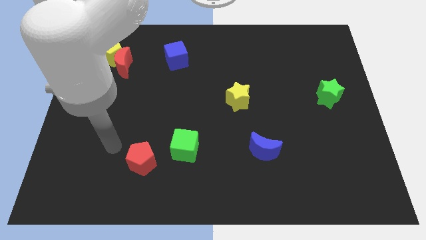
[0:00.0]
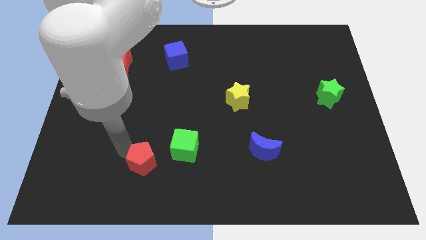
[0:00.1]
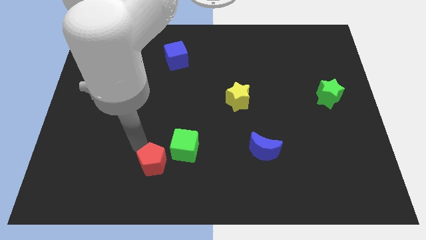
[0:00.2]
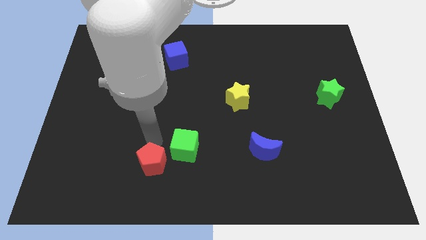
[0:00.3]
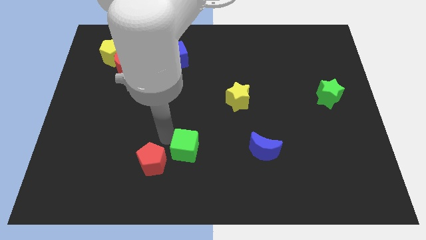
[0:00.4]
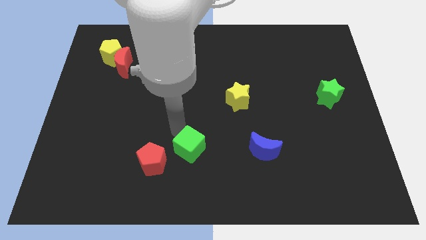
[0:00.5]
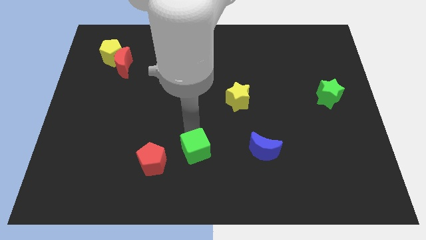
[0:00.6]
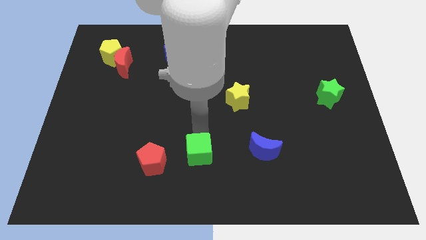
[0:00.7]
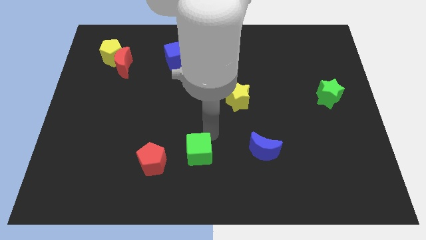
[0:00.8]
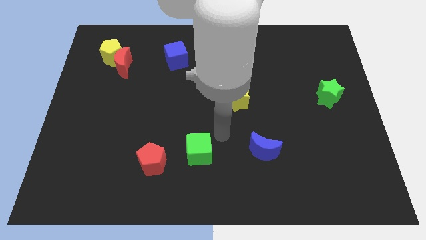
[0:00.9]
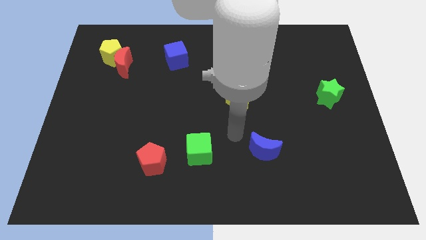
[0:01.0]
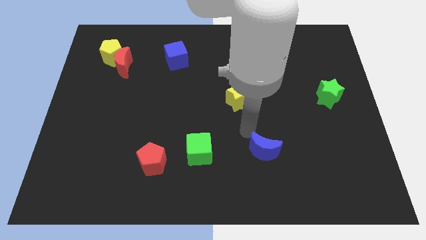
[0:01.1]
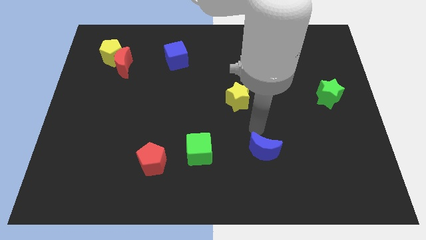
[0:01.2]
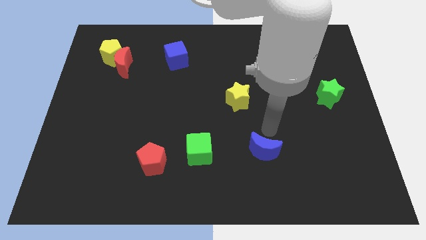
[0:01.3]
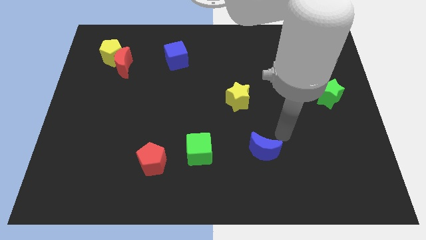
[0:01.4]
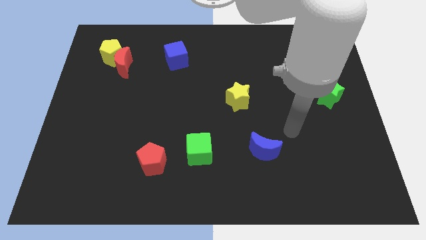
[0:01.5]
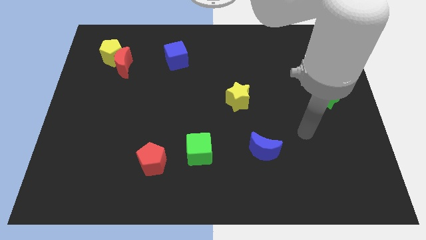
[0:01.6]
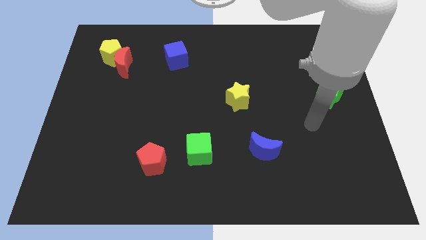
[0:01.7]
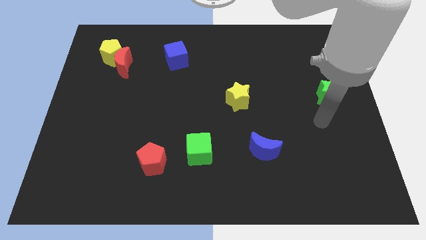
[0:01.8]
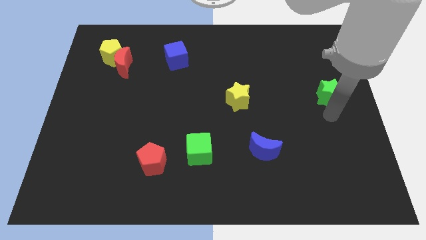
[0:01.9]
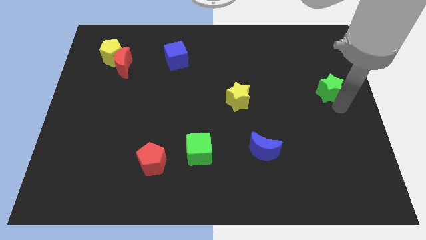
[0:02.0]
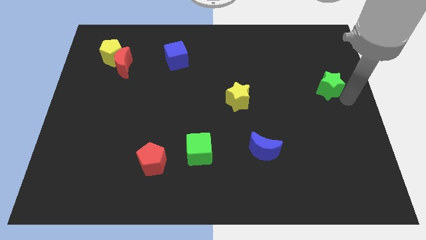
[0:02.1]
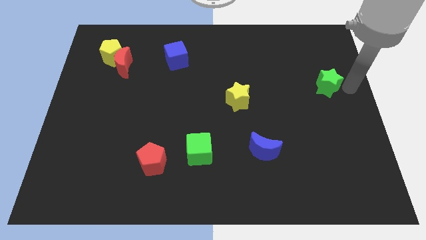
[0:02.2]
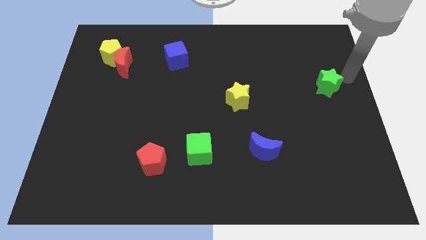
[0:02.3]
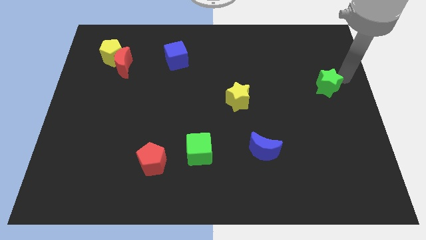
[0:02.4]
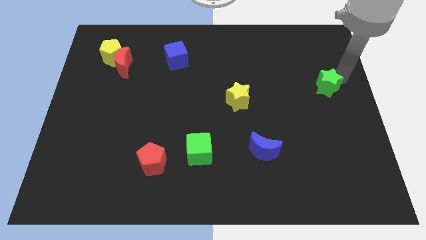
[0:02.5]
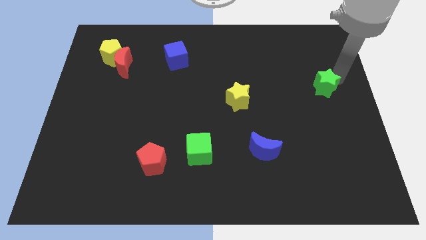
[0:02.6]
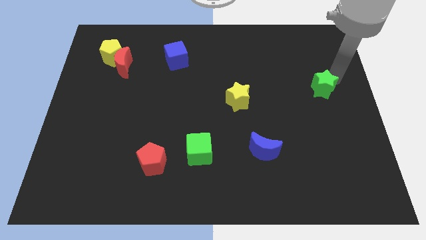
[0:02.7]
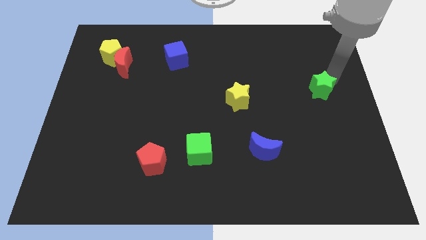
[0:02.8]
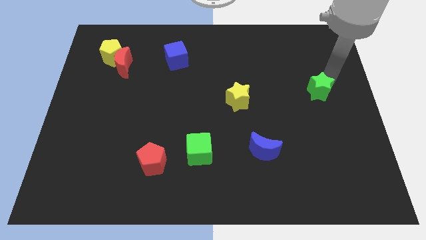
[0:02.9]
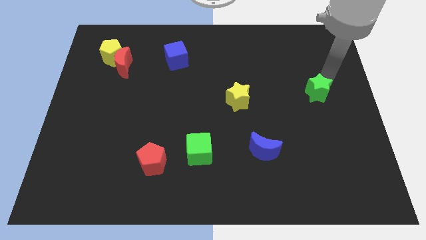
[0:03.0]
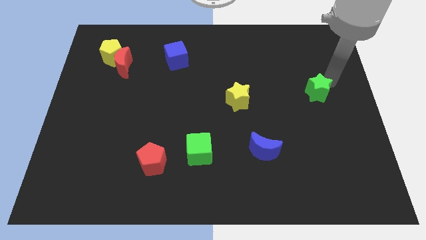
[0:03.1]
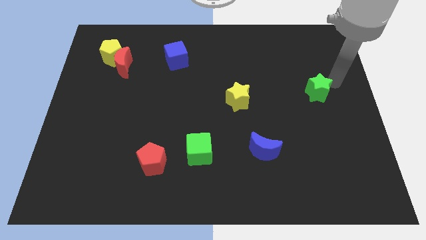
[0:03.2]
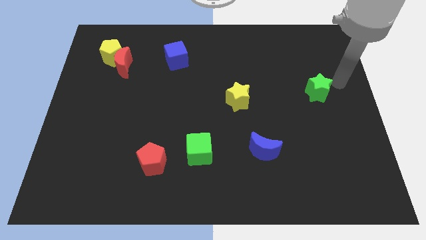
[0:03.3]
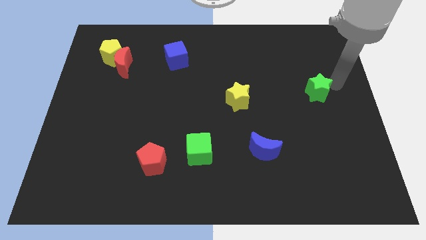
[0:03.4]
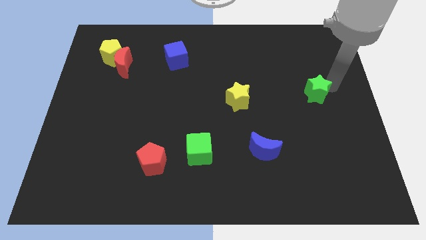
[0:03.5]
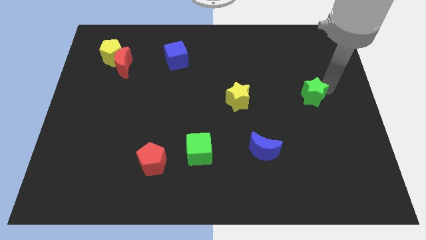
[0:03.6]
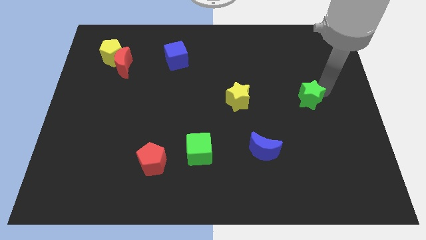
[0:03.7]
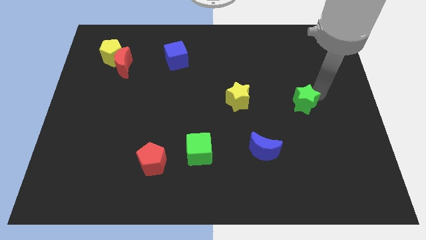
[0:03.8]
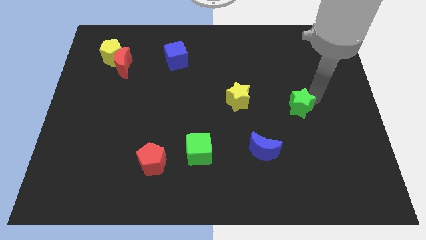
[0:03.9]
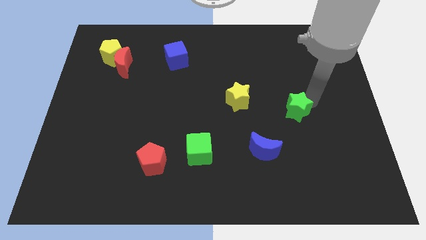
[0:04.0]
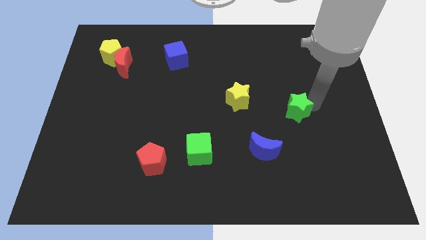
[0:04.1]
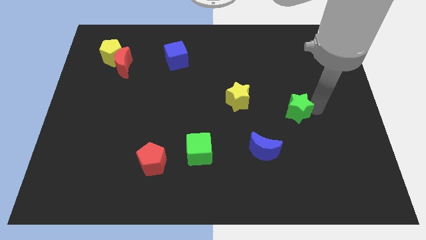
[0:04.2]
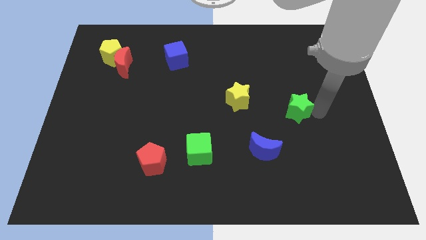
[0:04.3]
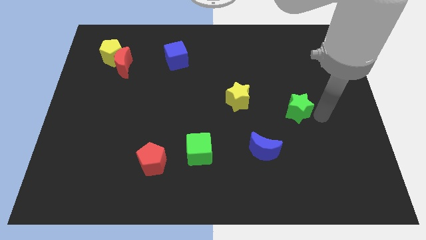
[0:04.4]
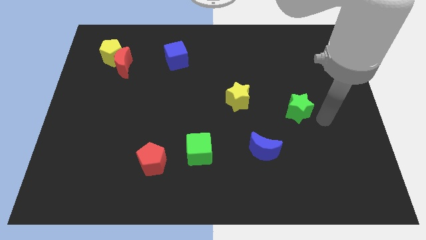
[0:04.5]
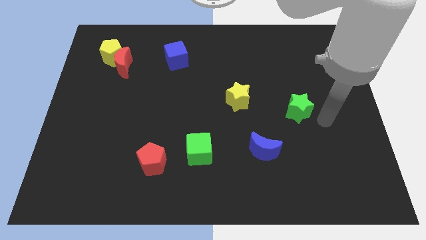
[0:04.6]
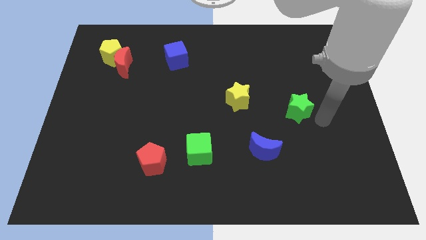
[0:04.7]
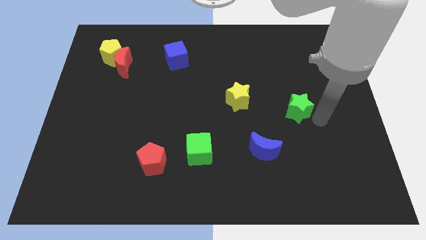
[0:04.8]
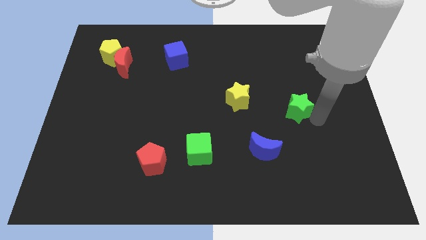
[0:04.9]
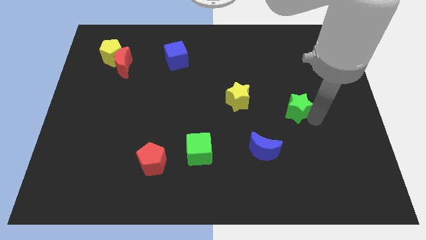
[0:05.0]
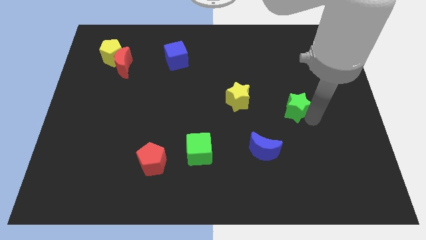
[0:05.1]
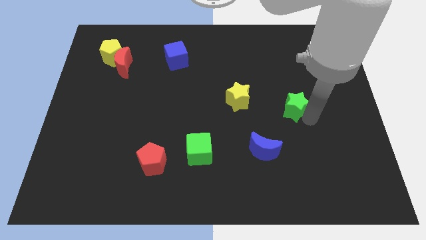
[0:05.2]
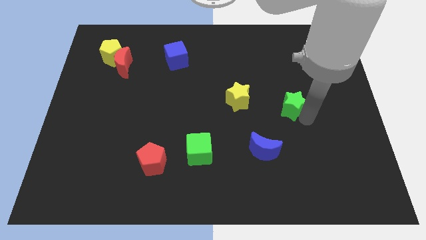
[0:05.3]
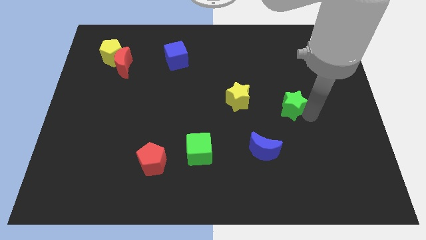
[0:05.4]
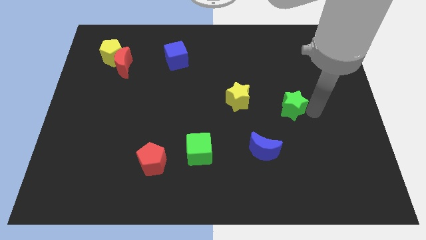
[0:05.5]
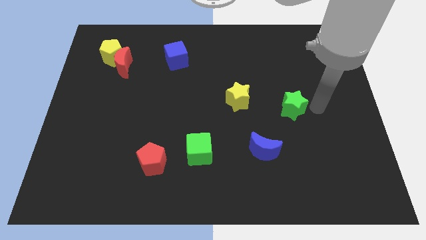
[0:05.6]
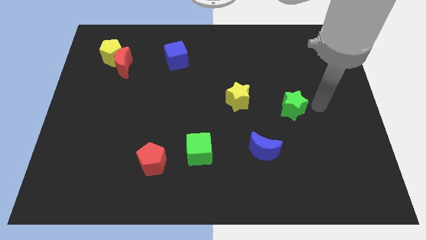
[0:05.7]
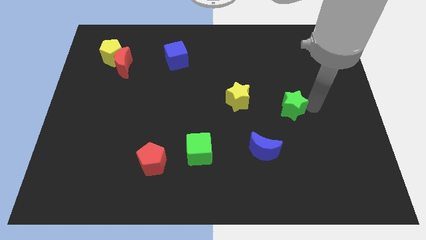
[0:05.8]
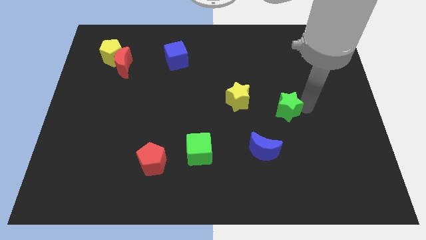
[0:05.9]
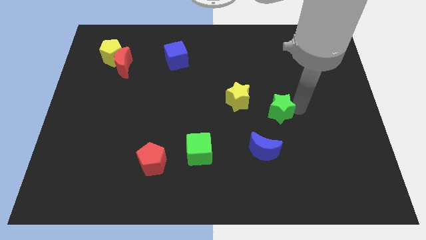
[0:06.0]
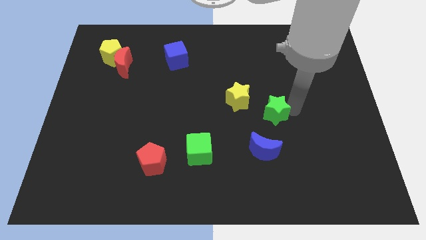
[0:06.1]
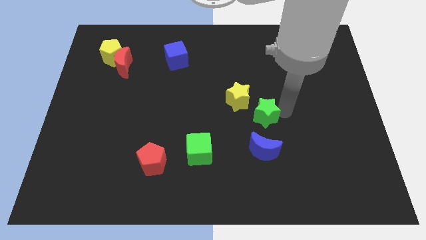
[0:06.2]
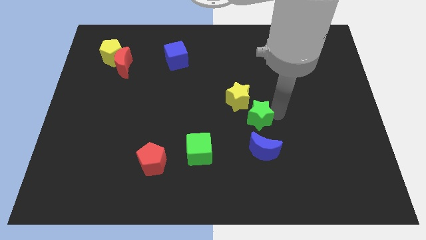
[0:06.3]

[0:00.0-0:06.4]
slide the green star to the center

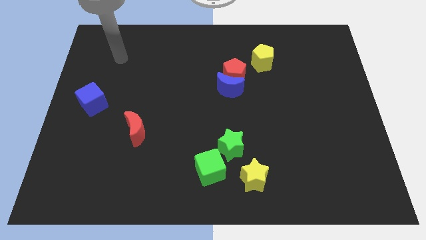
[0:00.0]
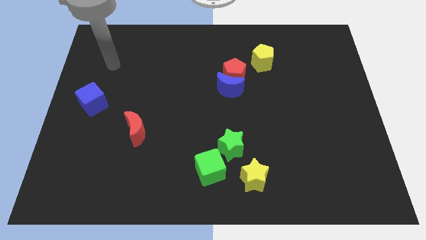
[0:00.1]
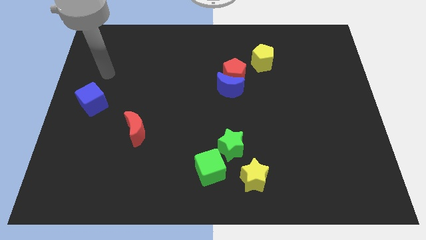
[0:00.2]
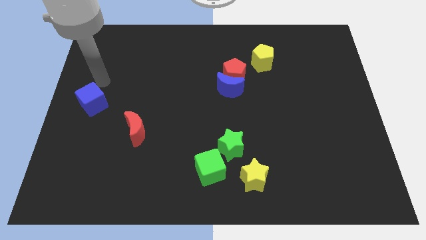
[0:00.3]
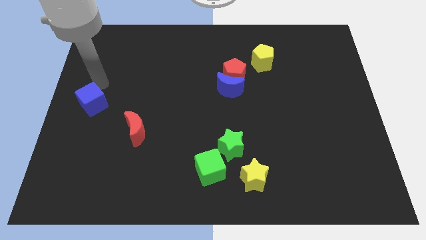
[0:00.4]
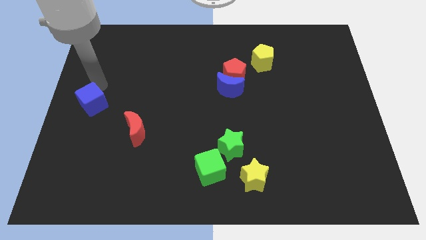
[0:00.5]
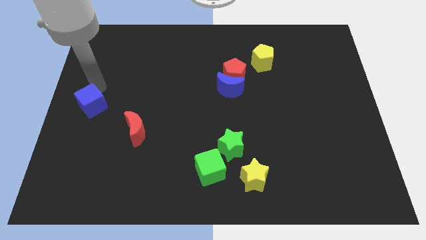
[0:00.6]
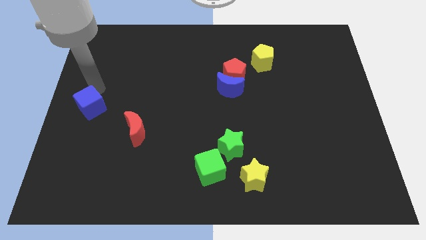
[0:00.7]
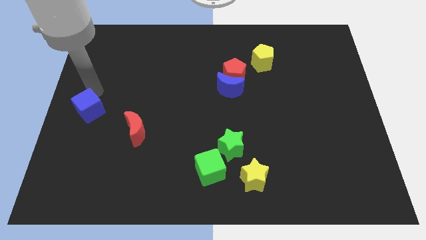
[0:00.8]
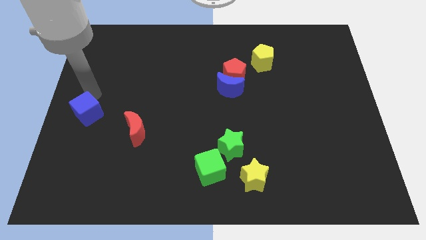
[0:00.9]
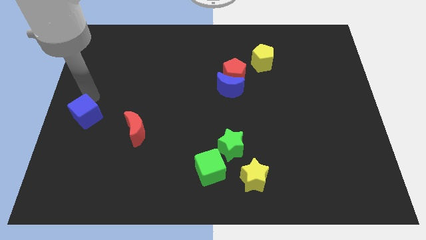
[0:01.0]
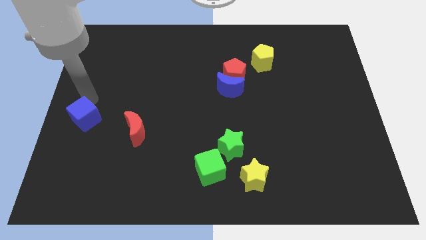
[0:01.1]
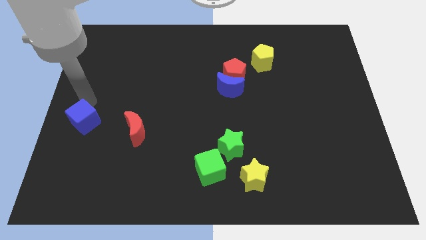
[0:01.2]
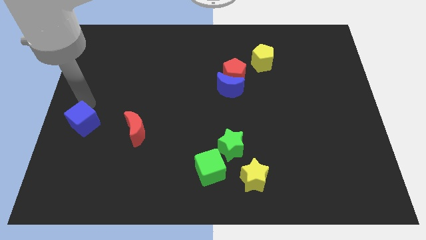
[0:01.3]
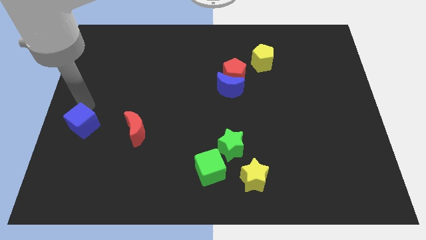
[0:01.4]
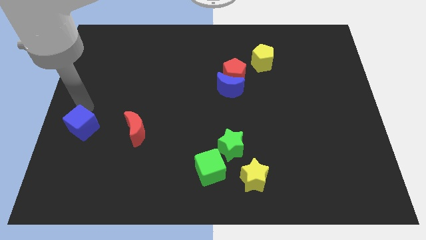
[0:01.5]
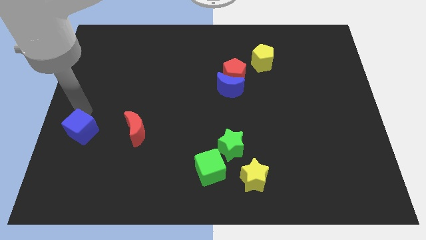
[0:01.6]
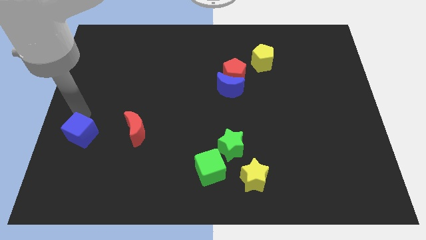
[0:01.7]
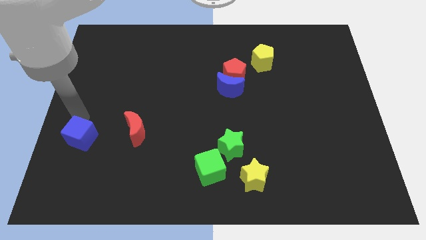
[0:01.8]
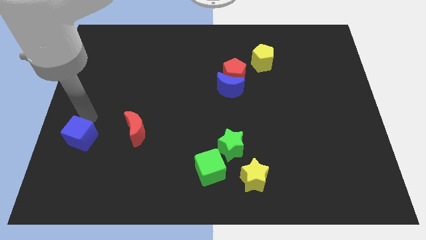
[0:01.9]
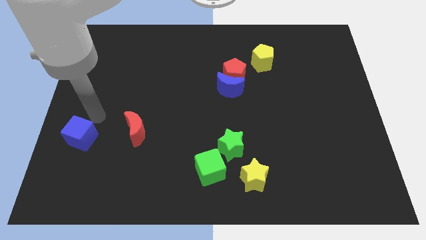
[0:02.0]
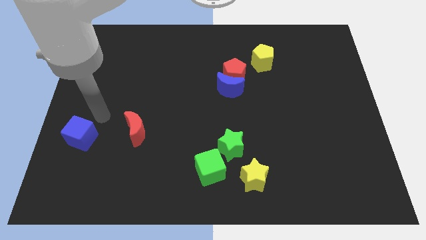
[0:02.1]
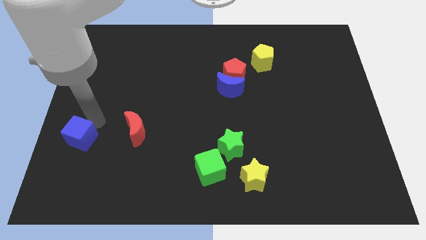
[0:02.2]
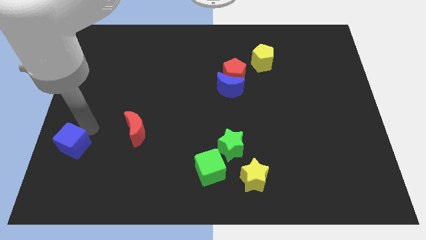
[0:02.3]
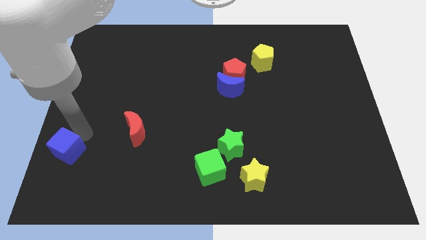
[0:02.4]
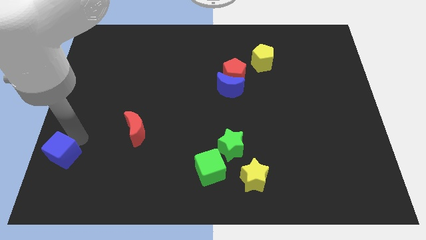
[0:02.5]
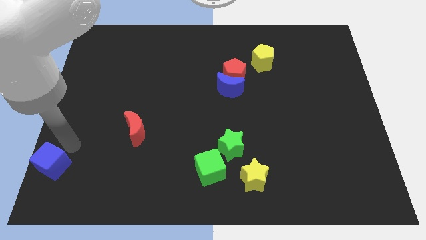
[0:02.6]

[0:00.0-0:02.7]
slide the blue cube to the bottom left corner
